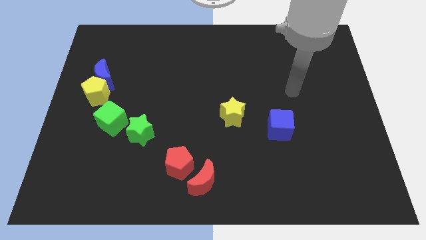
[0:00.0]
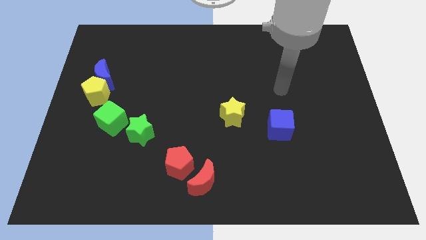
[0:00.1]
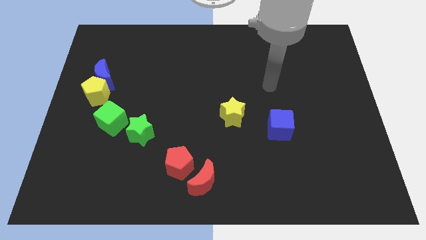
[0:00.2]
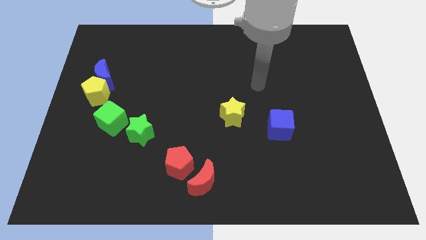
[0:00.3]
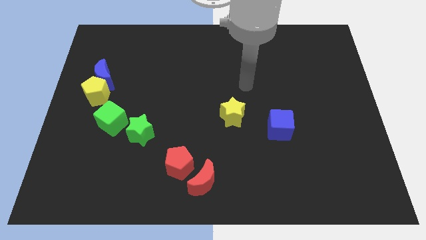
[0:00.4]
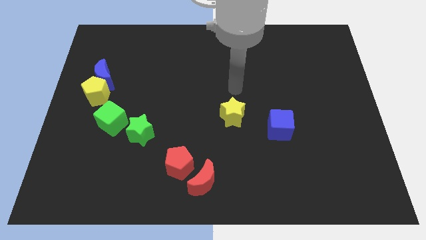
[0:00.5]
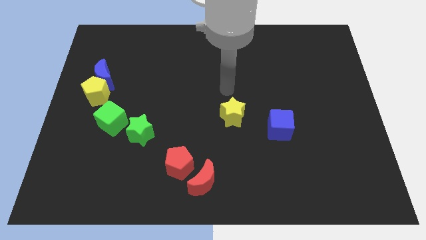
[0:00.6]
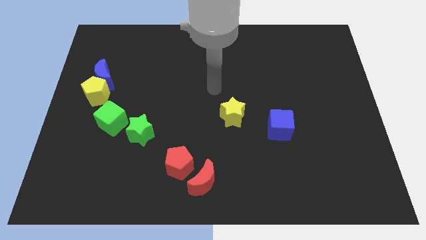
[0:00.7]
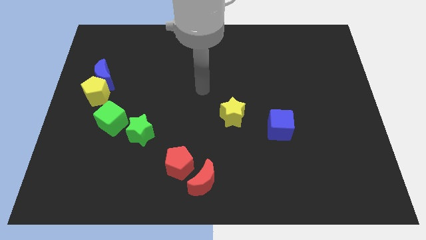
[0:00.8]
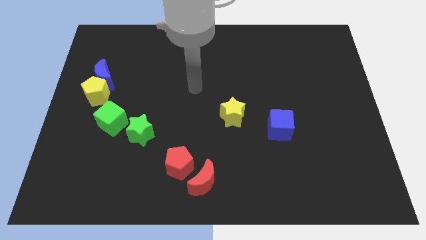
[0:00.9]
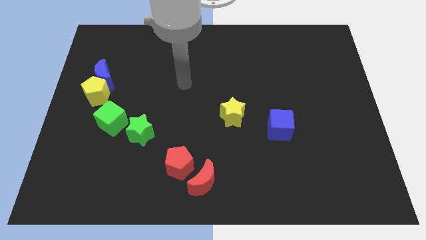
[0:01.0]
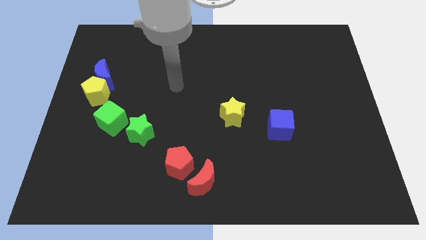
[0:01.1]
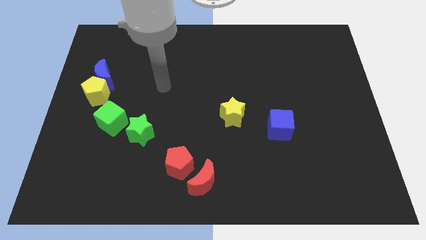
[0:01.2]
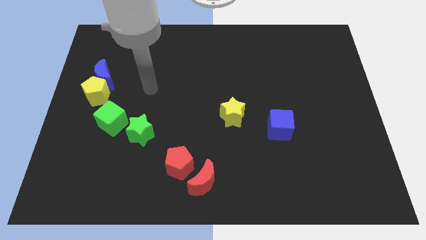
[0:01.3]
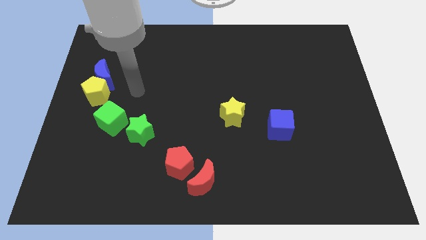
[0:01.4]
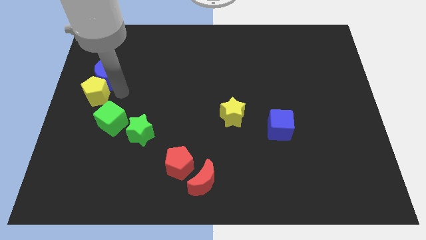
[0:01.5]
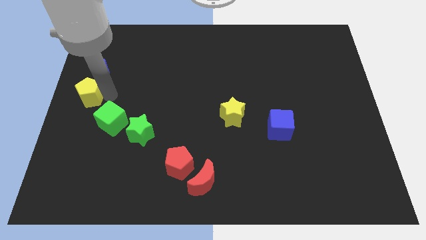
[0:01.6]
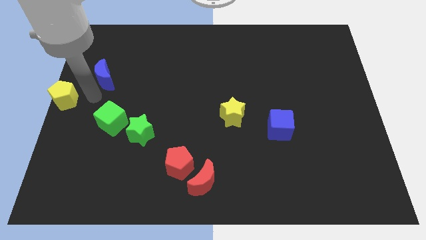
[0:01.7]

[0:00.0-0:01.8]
separate the blue moon from the yellow pentagon

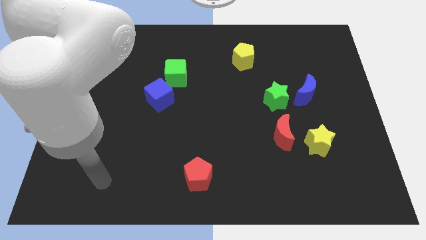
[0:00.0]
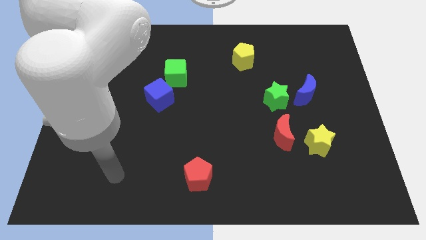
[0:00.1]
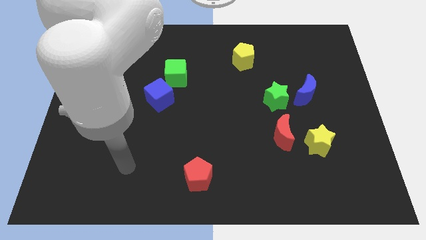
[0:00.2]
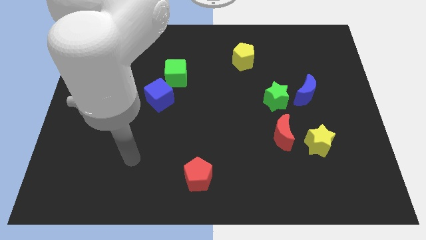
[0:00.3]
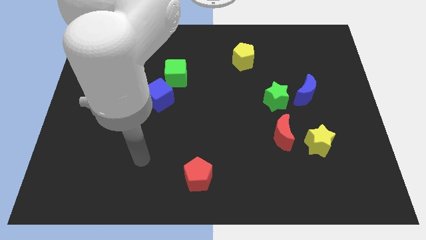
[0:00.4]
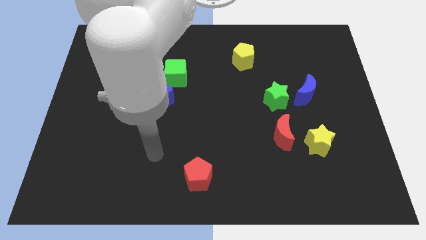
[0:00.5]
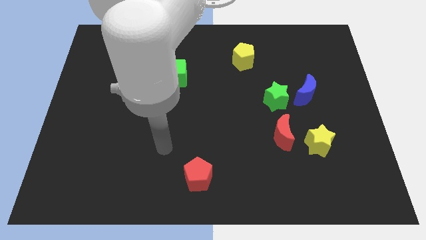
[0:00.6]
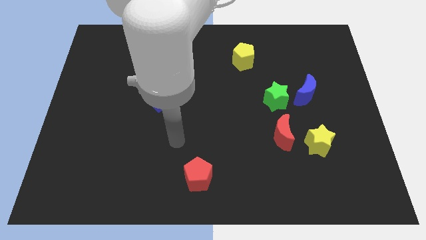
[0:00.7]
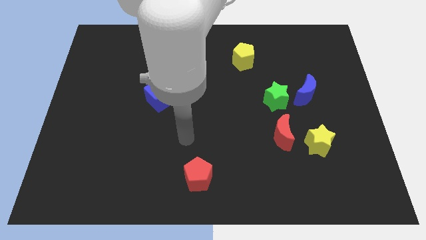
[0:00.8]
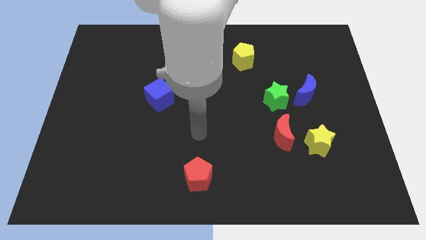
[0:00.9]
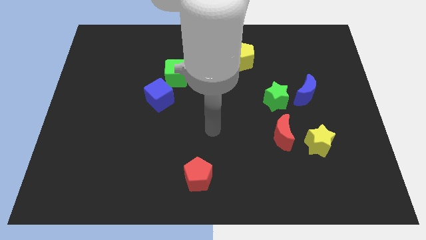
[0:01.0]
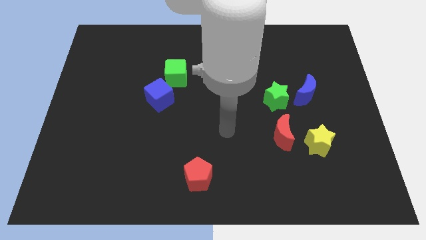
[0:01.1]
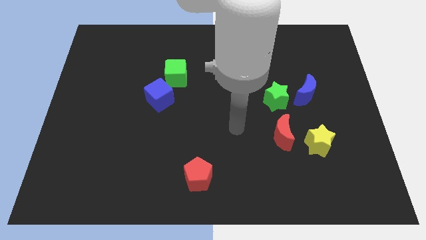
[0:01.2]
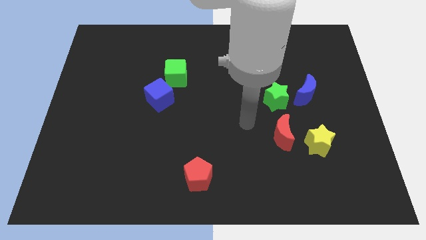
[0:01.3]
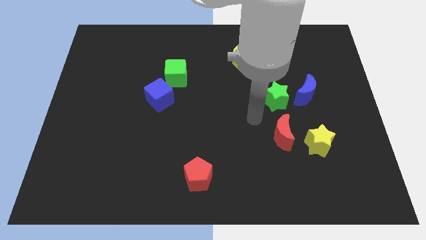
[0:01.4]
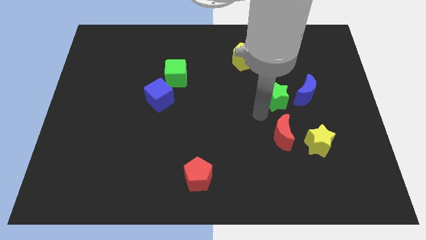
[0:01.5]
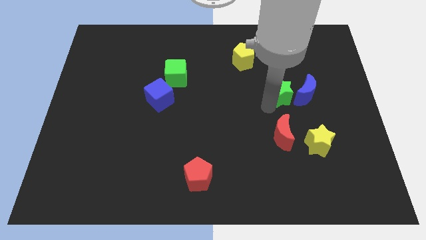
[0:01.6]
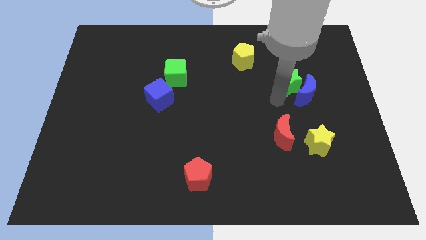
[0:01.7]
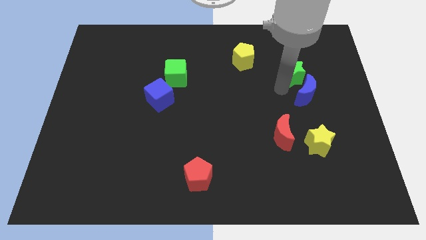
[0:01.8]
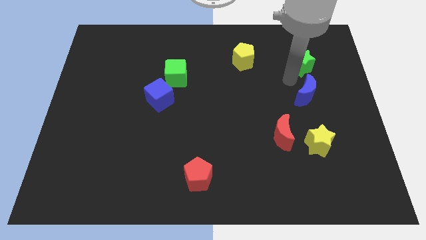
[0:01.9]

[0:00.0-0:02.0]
pull the blue moon apart from the green star

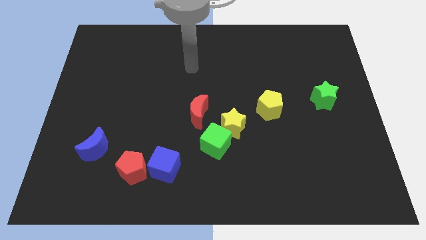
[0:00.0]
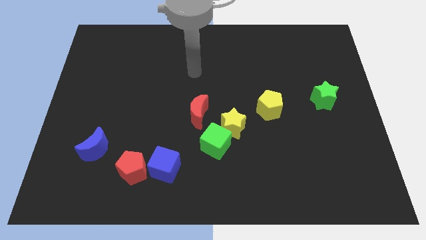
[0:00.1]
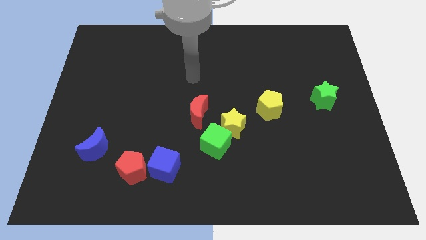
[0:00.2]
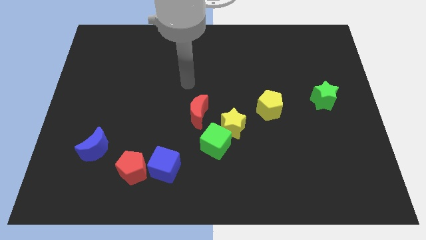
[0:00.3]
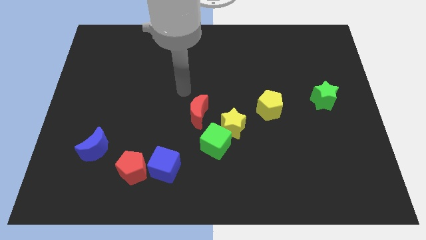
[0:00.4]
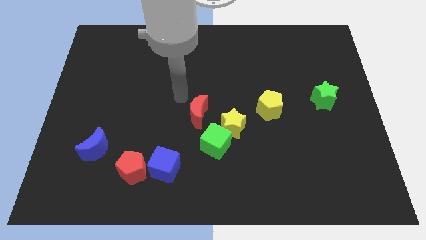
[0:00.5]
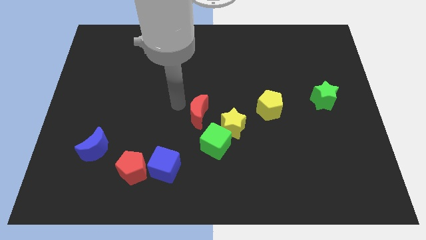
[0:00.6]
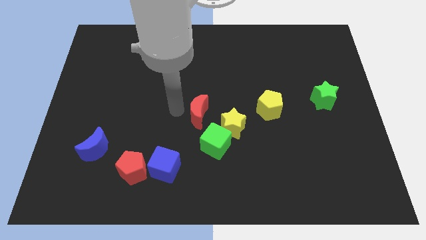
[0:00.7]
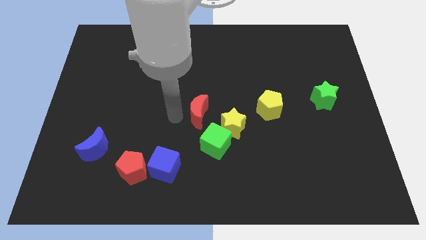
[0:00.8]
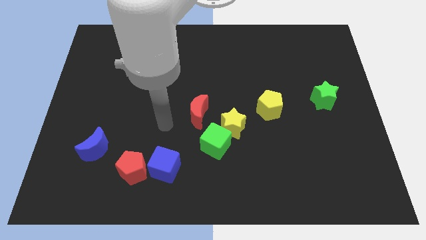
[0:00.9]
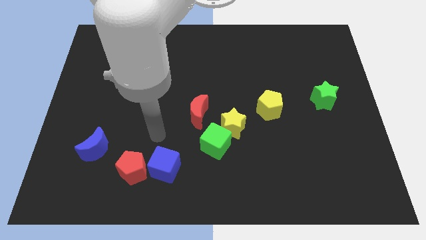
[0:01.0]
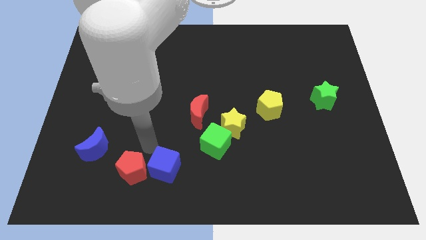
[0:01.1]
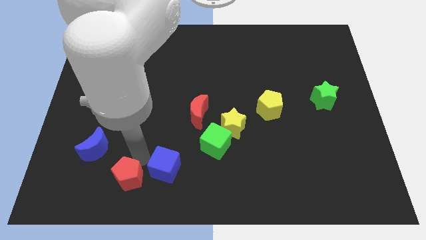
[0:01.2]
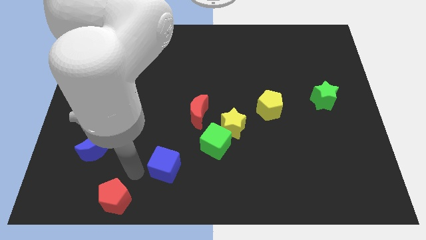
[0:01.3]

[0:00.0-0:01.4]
move the blue cube away from the red pentagon

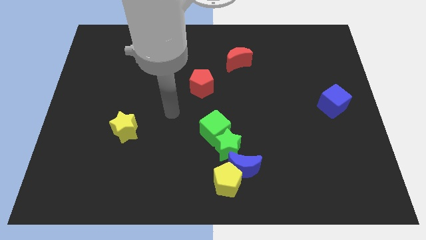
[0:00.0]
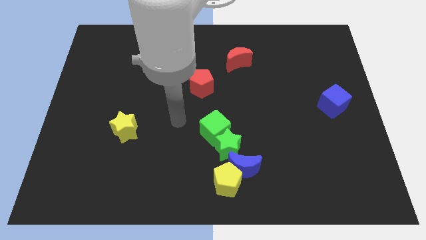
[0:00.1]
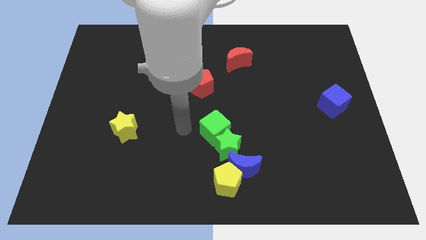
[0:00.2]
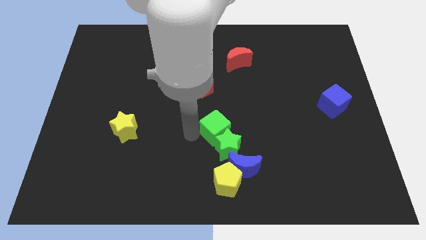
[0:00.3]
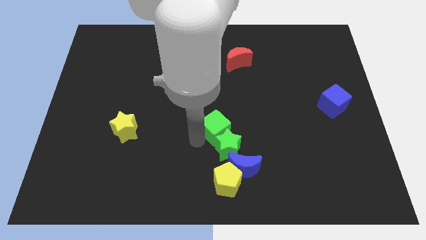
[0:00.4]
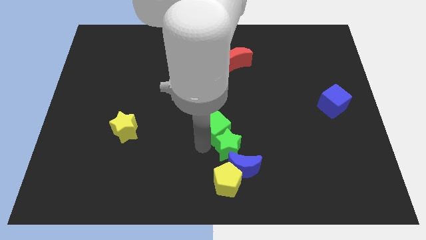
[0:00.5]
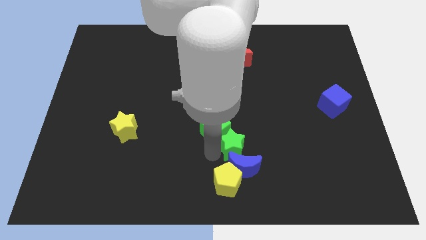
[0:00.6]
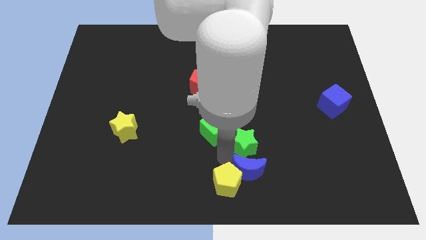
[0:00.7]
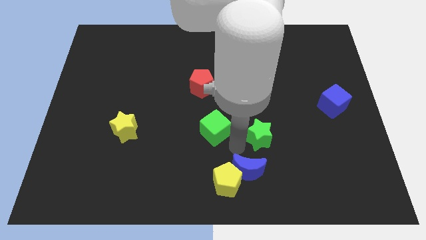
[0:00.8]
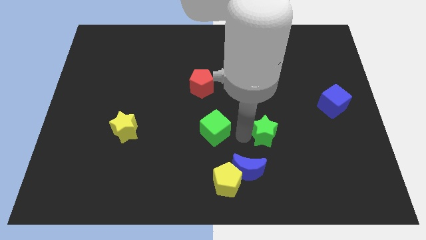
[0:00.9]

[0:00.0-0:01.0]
separate the green cube from the green star

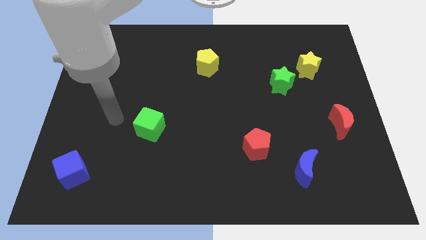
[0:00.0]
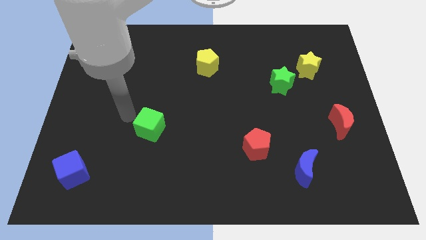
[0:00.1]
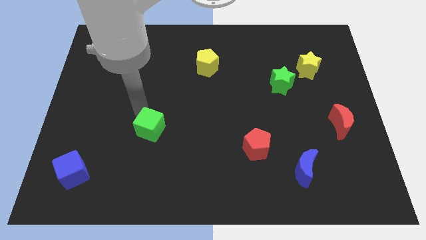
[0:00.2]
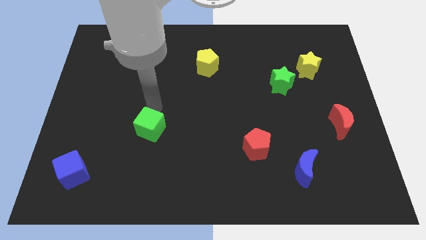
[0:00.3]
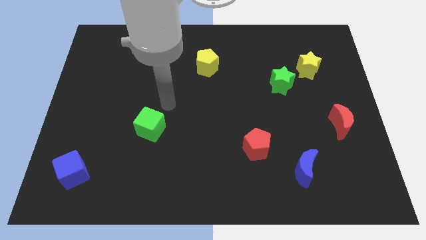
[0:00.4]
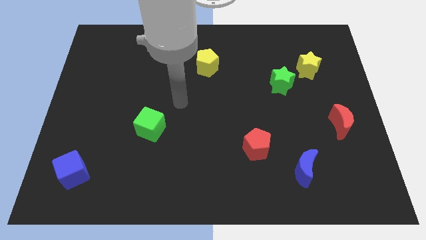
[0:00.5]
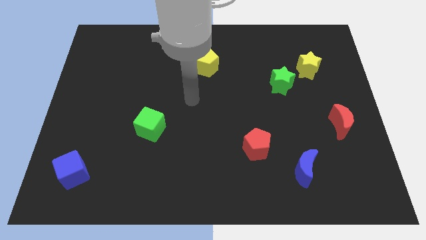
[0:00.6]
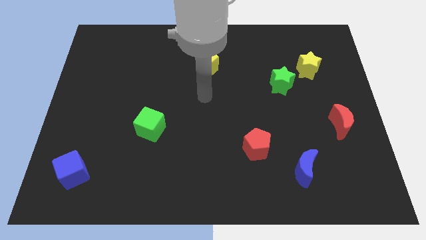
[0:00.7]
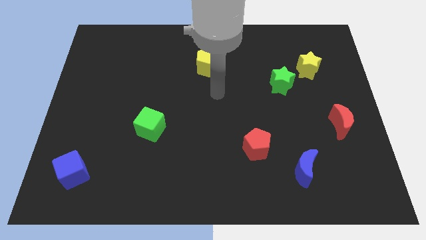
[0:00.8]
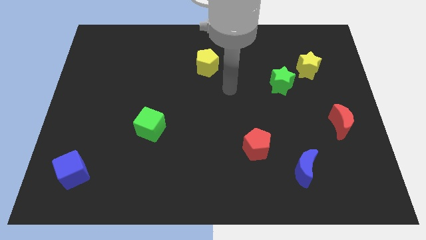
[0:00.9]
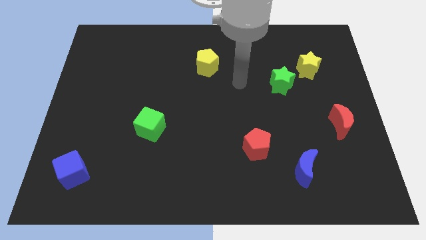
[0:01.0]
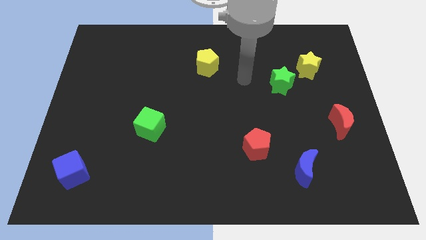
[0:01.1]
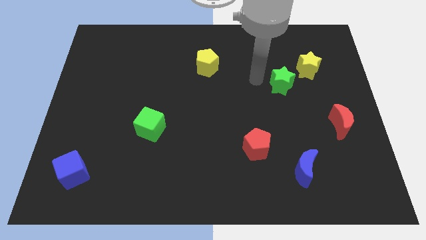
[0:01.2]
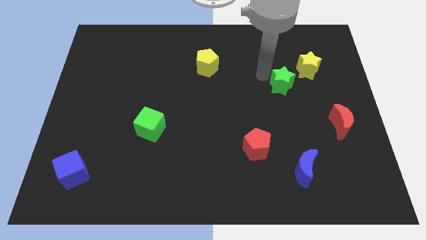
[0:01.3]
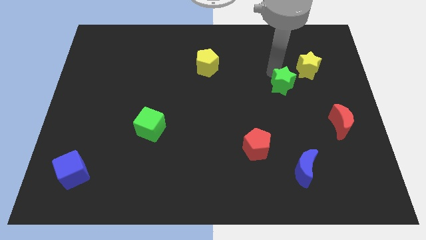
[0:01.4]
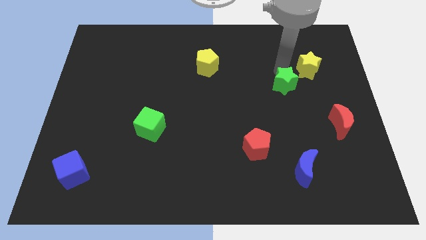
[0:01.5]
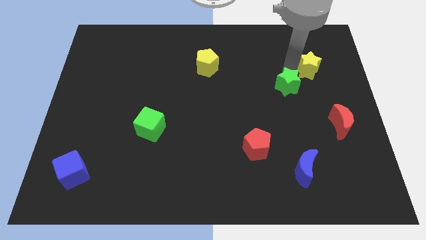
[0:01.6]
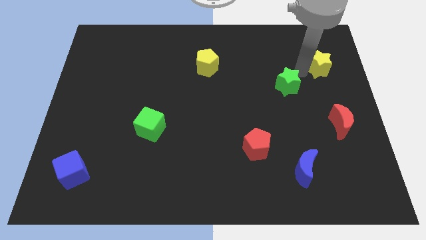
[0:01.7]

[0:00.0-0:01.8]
separate the green star from the yellow star

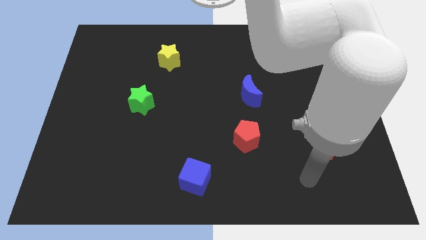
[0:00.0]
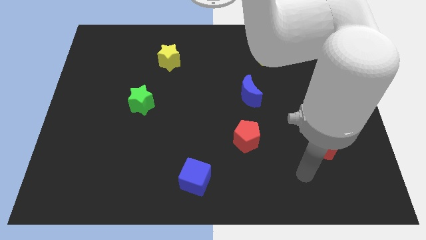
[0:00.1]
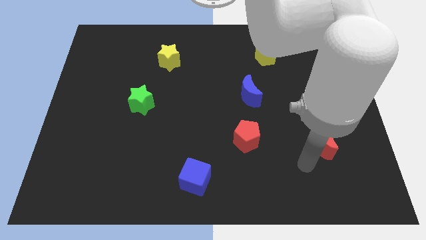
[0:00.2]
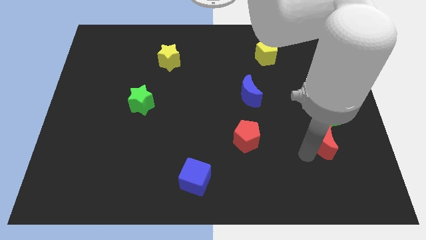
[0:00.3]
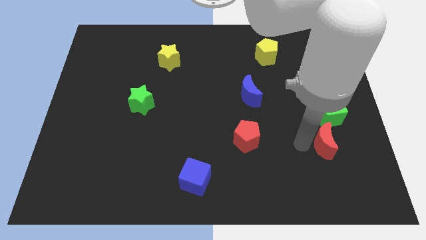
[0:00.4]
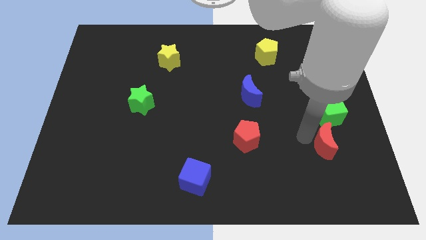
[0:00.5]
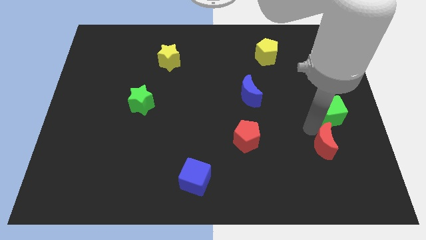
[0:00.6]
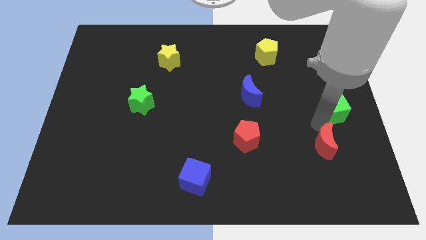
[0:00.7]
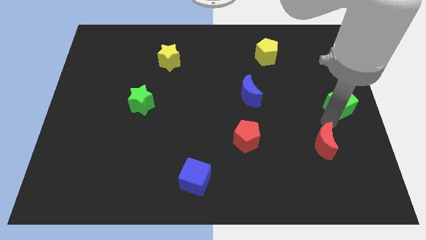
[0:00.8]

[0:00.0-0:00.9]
move the red moon away from the green cube

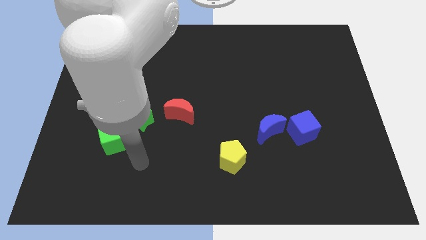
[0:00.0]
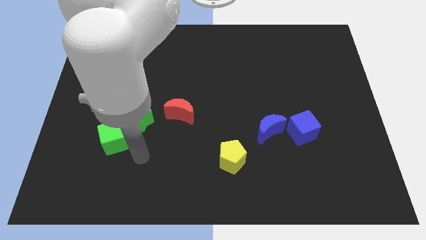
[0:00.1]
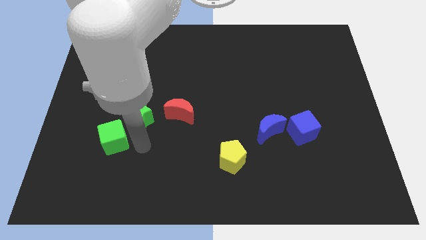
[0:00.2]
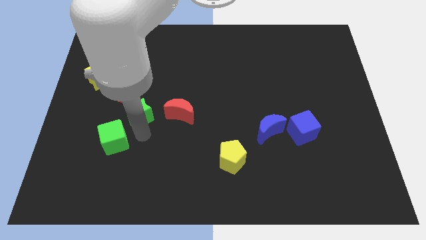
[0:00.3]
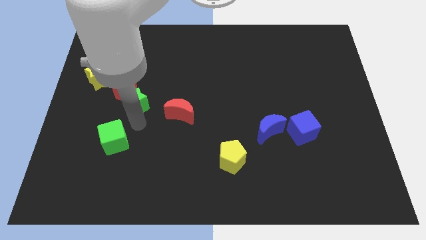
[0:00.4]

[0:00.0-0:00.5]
move the green cube away from the green star
